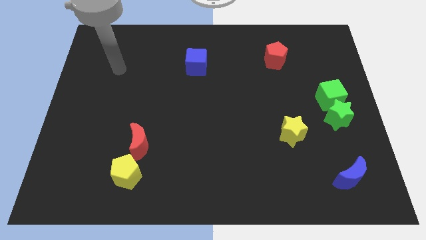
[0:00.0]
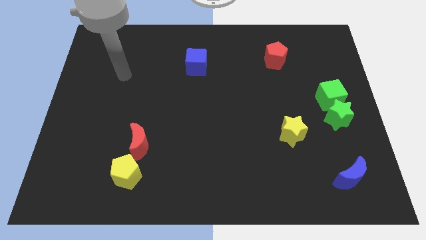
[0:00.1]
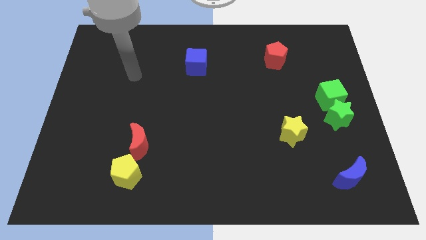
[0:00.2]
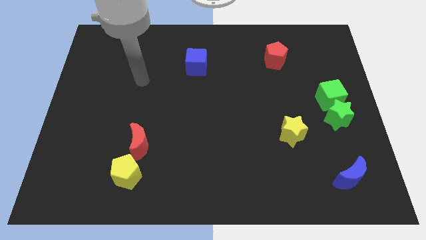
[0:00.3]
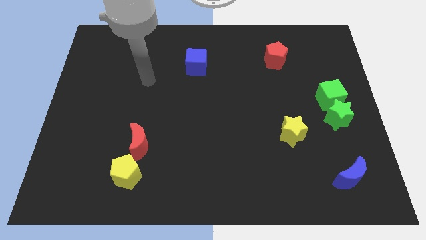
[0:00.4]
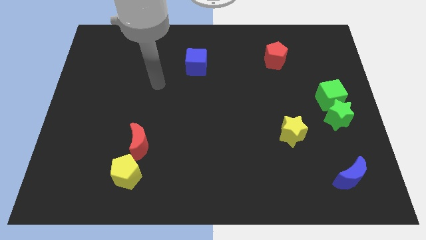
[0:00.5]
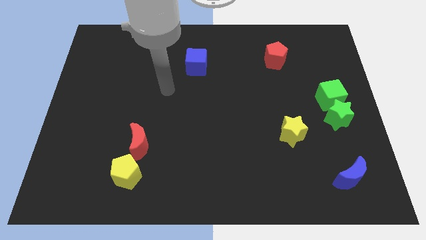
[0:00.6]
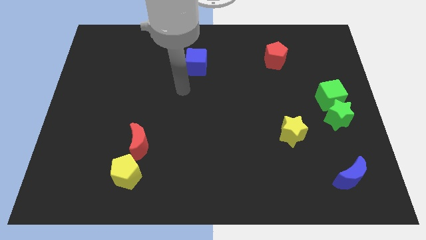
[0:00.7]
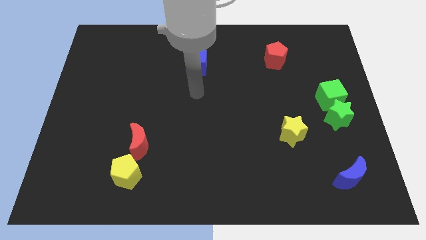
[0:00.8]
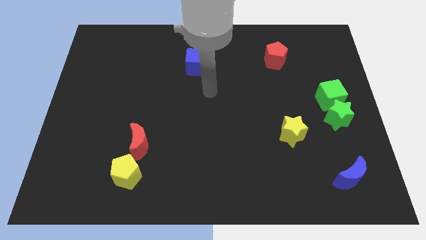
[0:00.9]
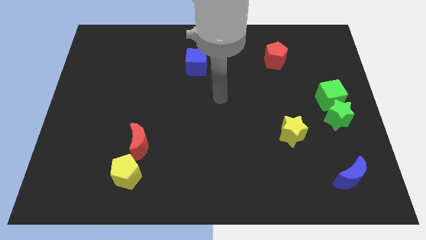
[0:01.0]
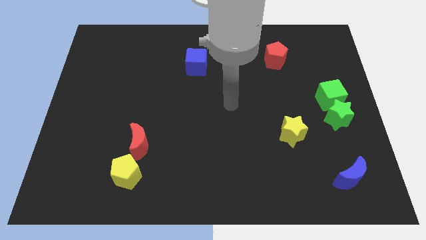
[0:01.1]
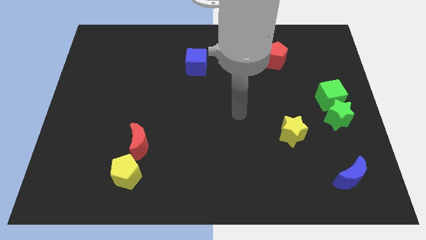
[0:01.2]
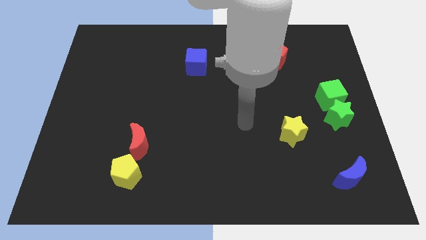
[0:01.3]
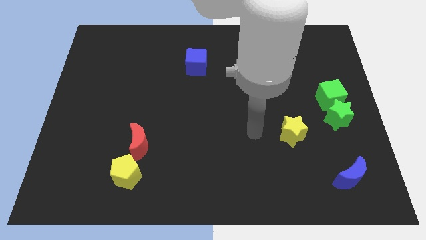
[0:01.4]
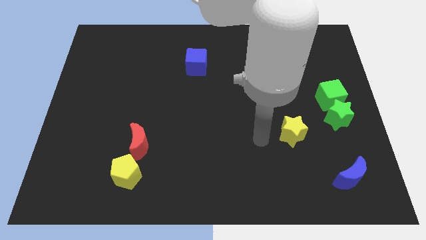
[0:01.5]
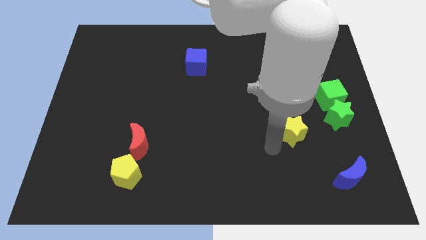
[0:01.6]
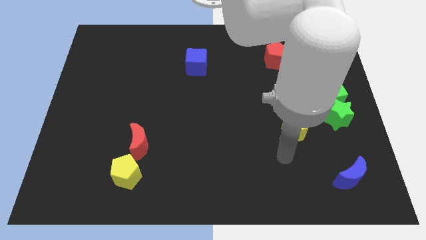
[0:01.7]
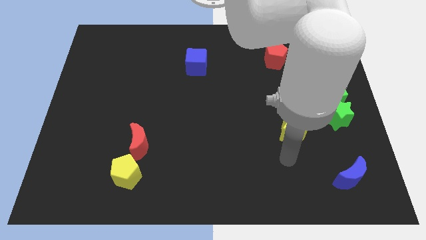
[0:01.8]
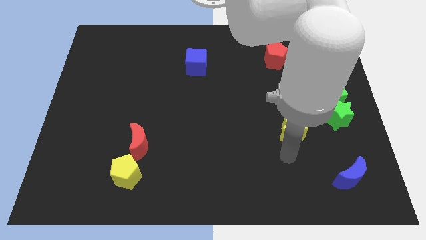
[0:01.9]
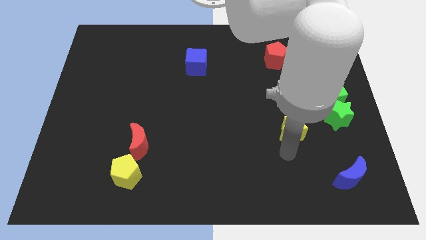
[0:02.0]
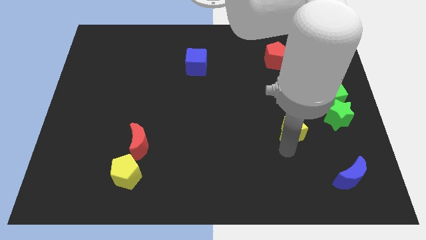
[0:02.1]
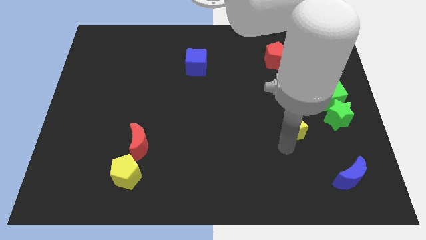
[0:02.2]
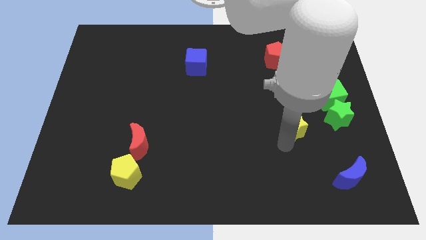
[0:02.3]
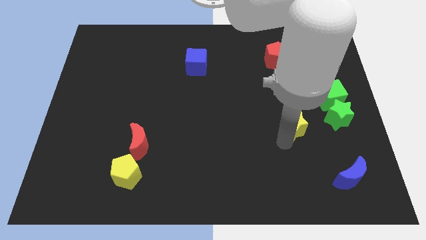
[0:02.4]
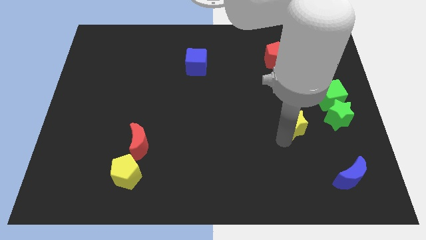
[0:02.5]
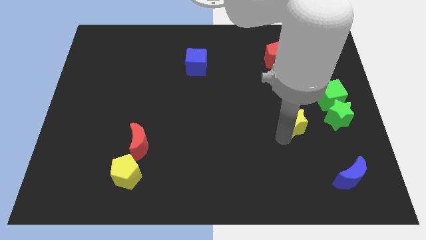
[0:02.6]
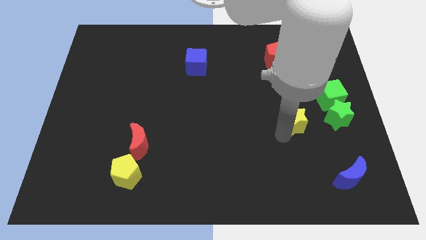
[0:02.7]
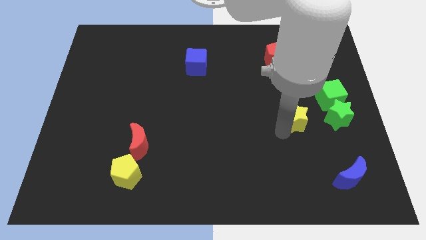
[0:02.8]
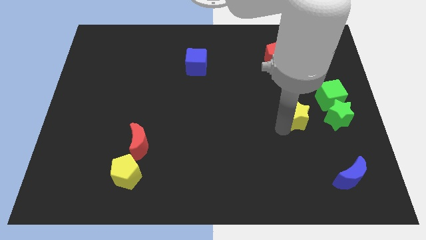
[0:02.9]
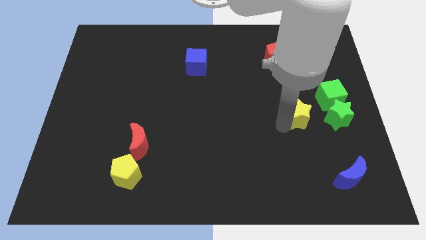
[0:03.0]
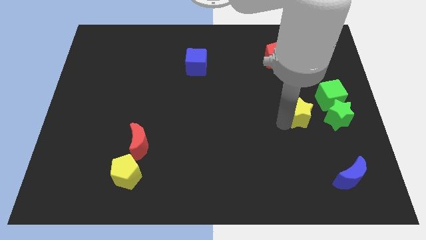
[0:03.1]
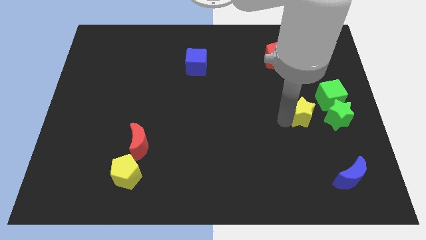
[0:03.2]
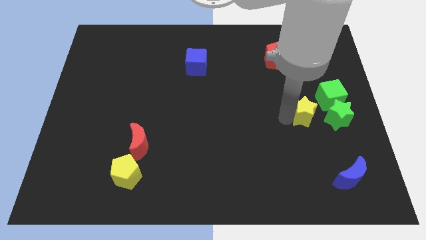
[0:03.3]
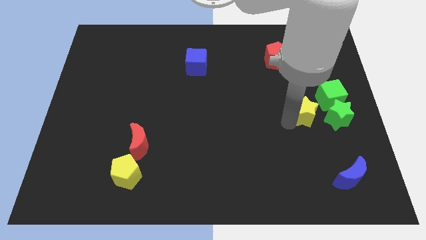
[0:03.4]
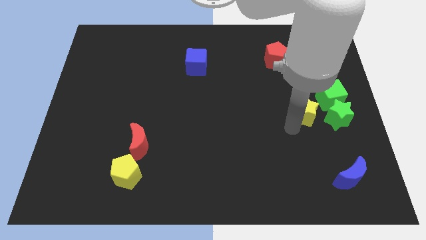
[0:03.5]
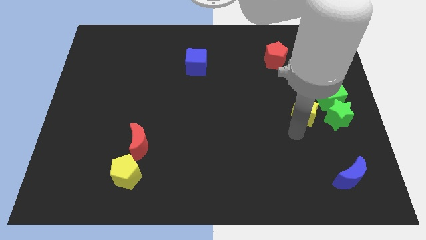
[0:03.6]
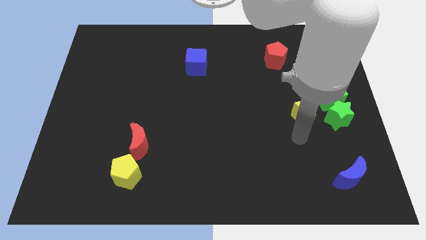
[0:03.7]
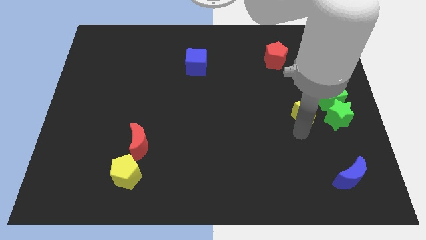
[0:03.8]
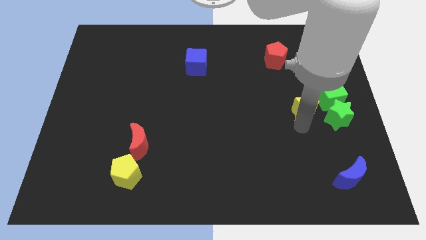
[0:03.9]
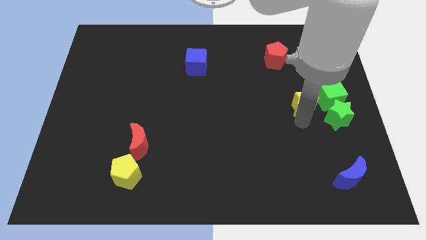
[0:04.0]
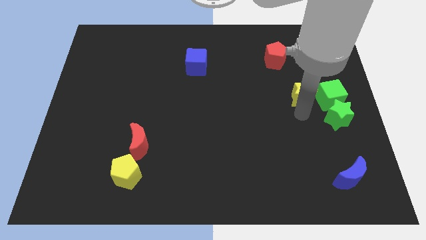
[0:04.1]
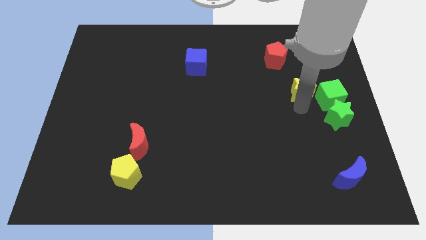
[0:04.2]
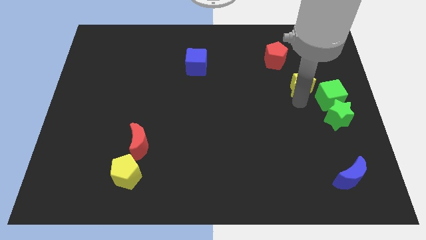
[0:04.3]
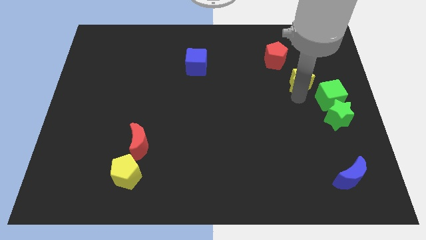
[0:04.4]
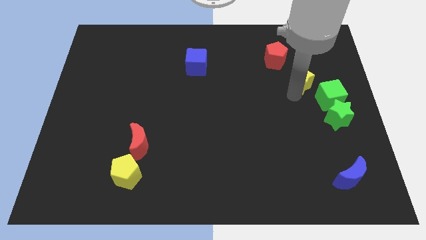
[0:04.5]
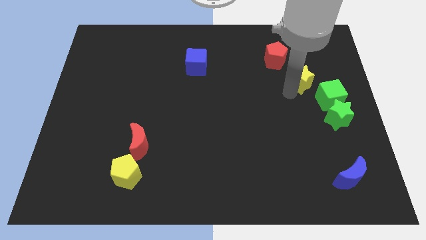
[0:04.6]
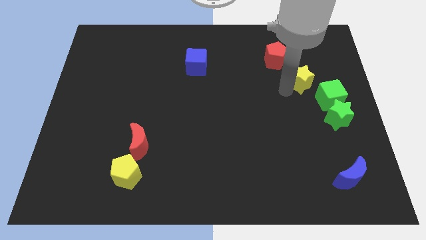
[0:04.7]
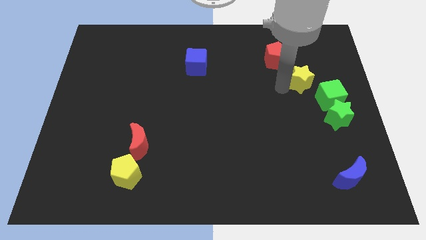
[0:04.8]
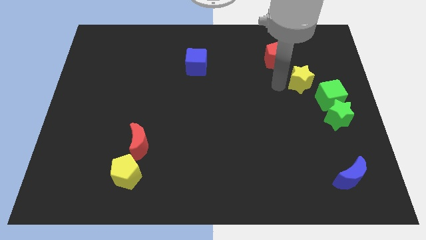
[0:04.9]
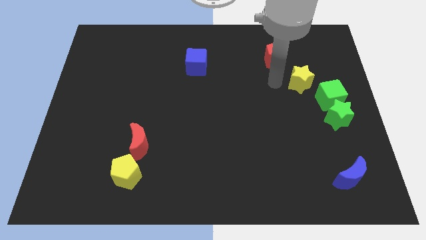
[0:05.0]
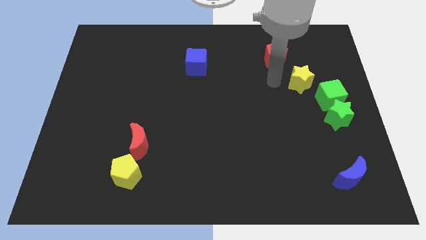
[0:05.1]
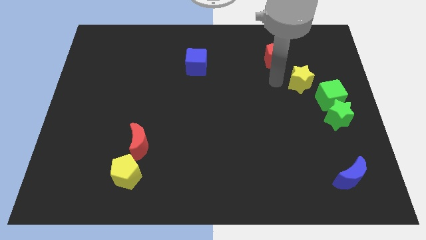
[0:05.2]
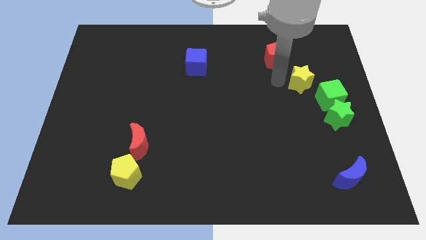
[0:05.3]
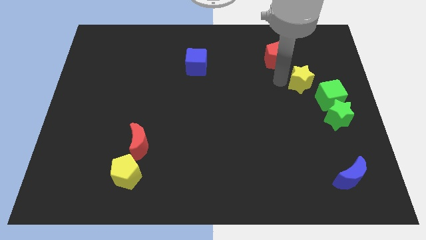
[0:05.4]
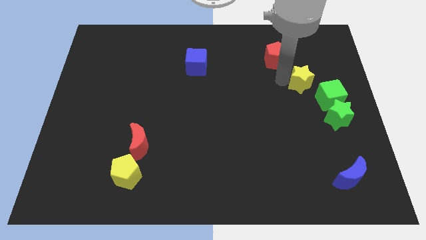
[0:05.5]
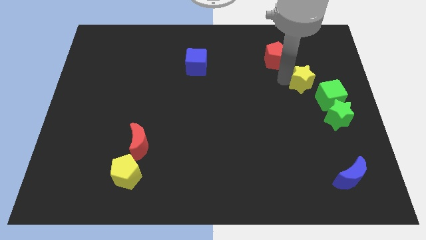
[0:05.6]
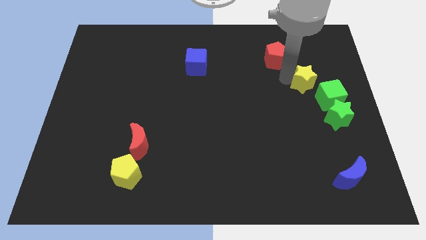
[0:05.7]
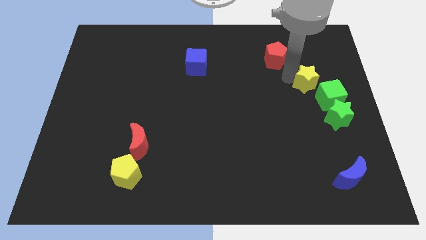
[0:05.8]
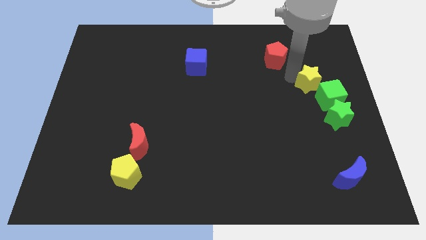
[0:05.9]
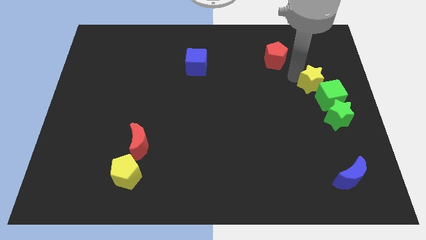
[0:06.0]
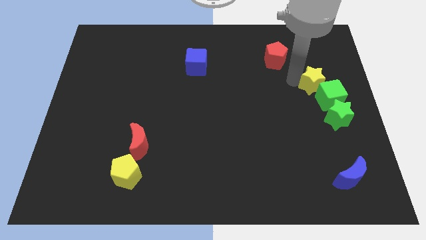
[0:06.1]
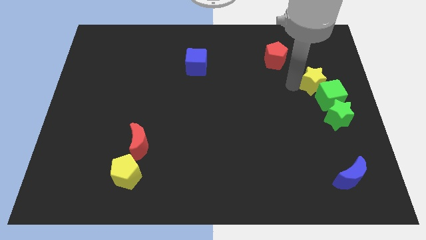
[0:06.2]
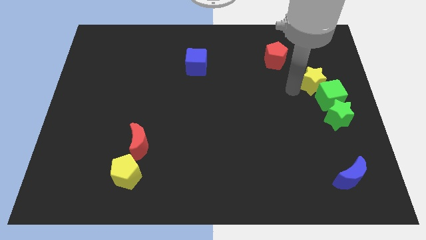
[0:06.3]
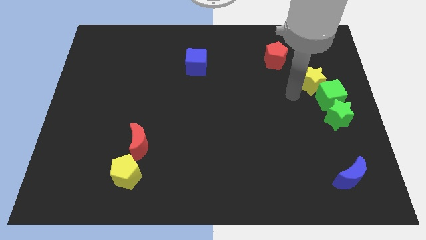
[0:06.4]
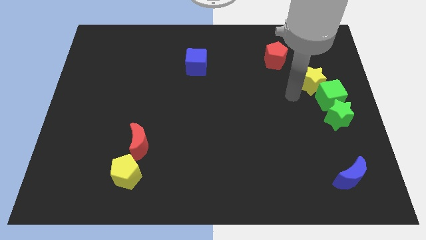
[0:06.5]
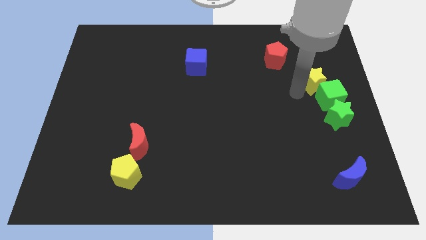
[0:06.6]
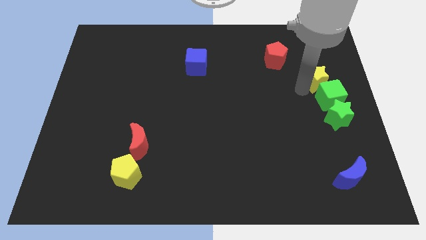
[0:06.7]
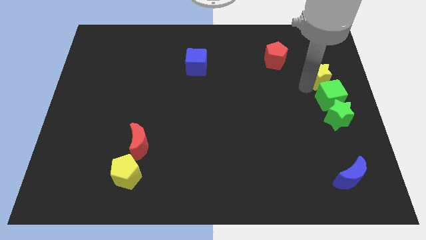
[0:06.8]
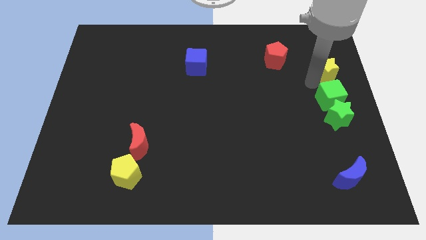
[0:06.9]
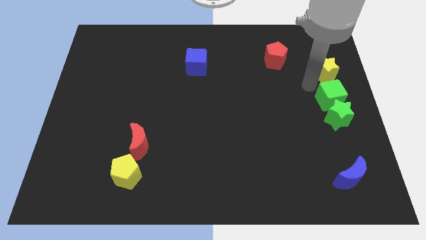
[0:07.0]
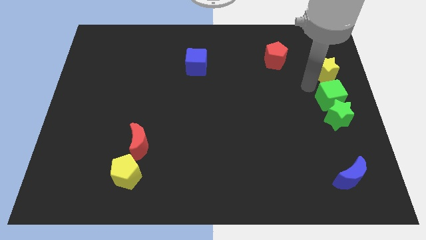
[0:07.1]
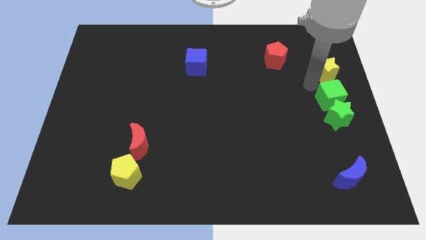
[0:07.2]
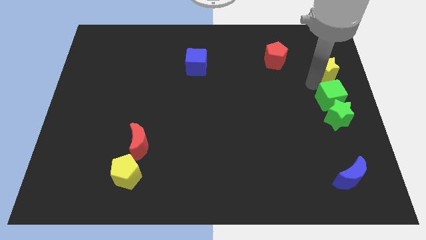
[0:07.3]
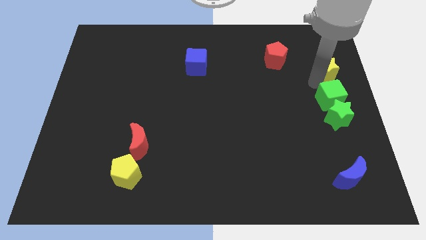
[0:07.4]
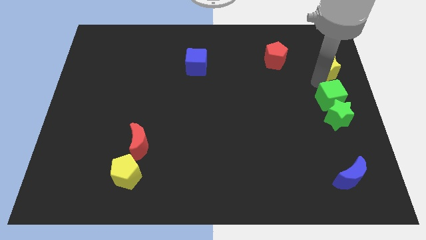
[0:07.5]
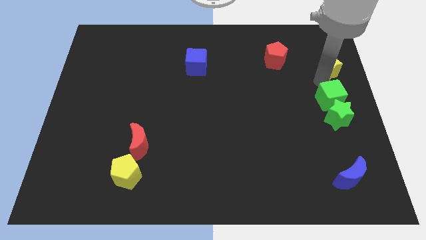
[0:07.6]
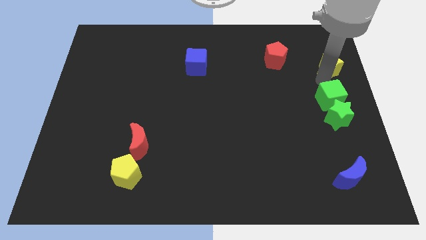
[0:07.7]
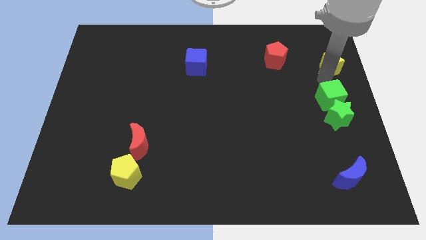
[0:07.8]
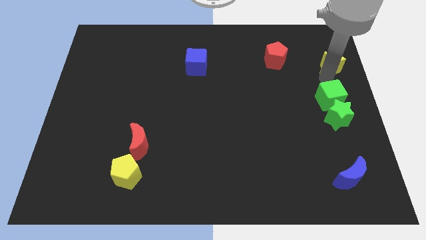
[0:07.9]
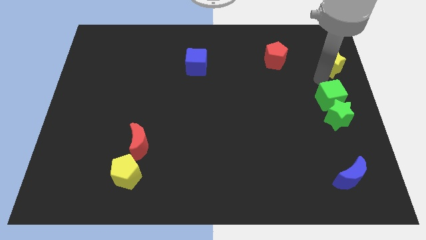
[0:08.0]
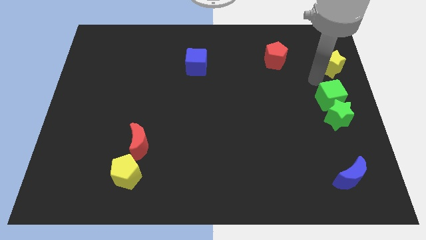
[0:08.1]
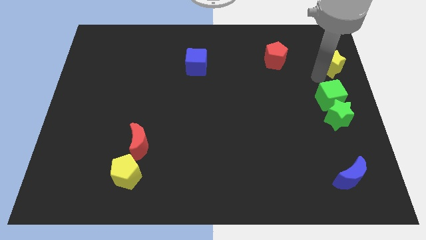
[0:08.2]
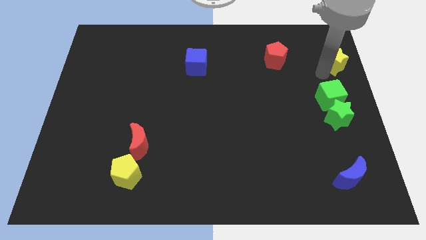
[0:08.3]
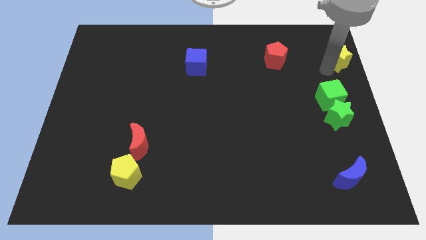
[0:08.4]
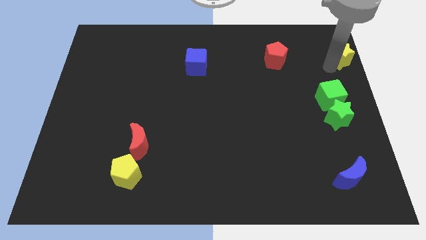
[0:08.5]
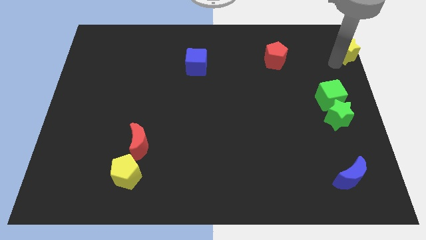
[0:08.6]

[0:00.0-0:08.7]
slide the yellow star to the upper right corner
